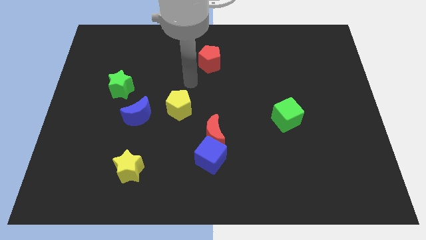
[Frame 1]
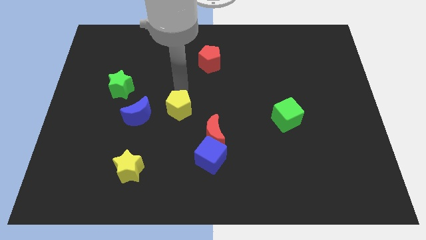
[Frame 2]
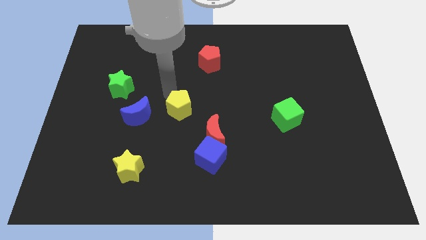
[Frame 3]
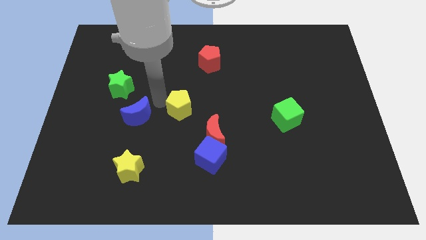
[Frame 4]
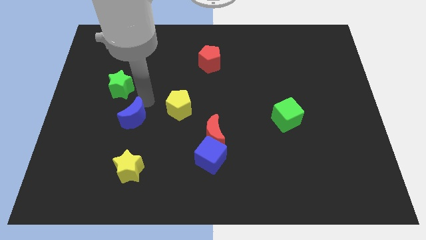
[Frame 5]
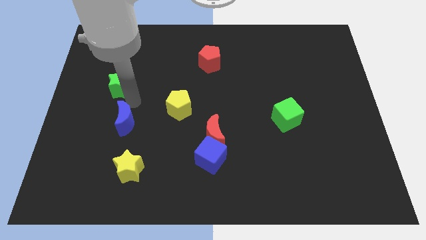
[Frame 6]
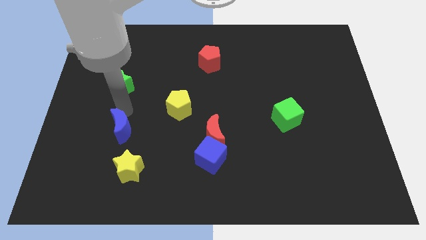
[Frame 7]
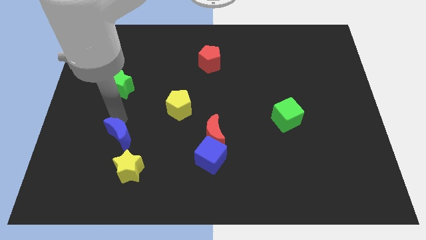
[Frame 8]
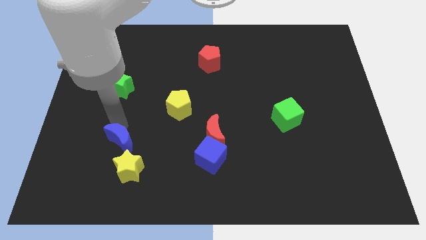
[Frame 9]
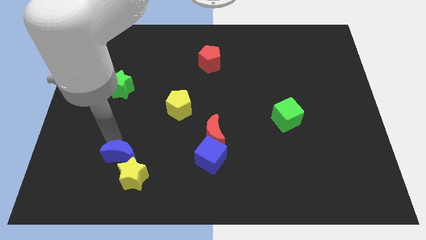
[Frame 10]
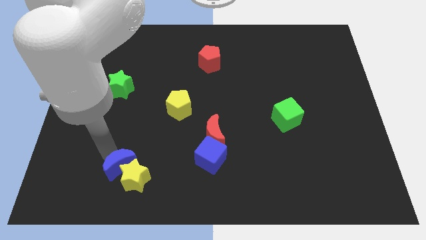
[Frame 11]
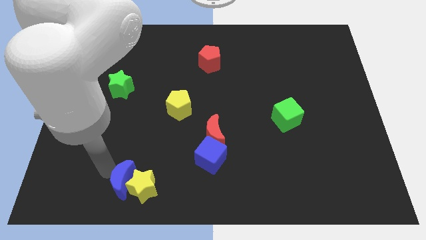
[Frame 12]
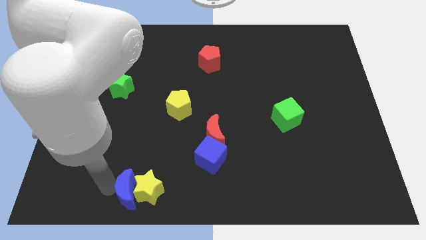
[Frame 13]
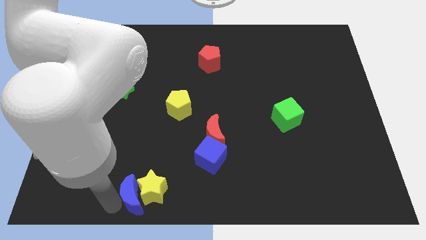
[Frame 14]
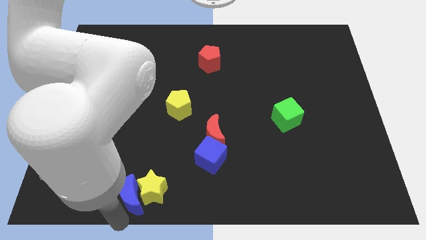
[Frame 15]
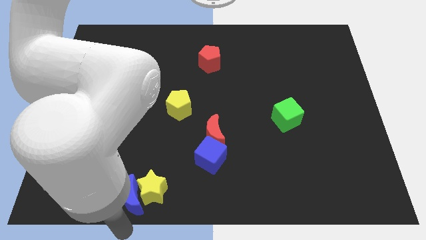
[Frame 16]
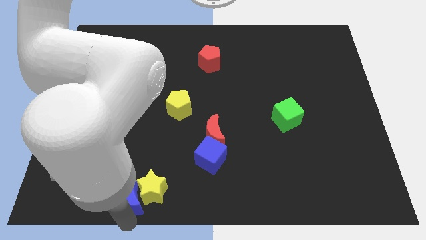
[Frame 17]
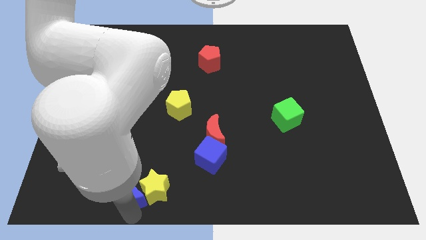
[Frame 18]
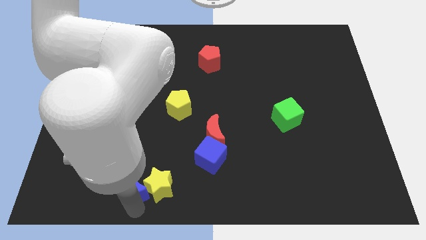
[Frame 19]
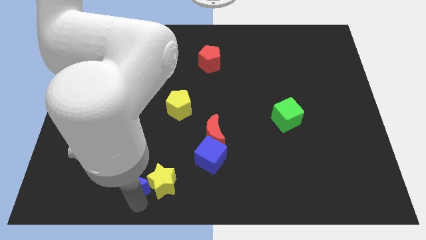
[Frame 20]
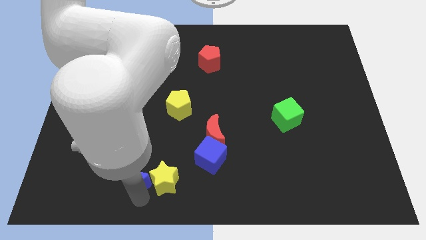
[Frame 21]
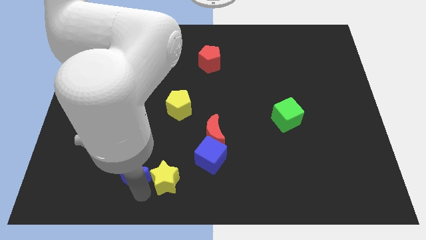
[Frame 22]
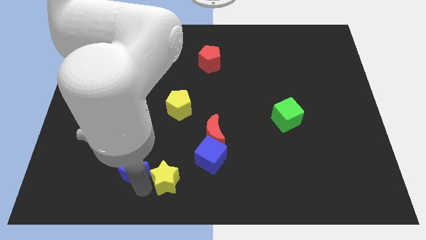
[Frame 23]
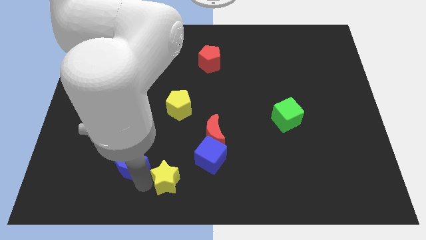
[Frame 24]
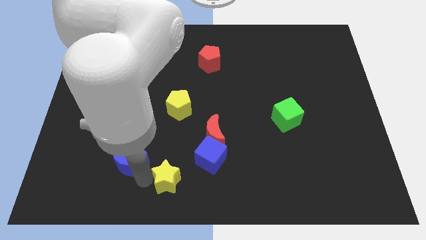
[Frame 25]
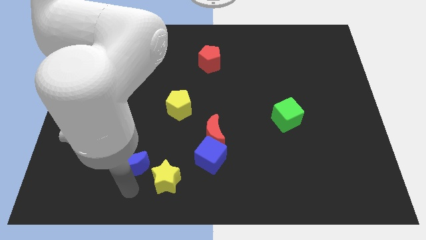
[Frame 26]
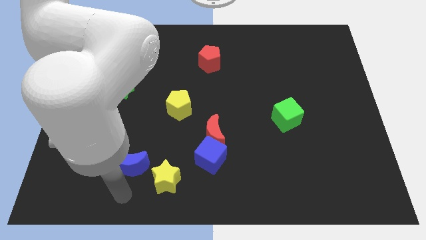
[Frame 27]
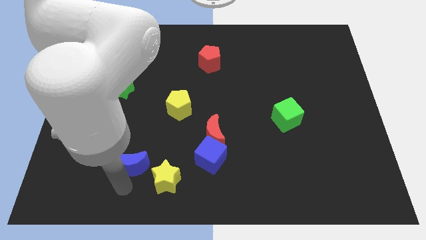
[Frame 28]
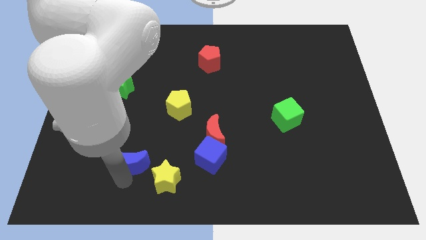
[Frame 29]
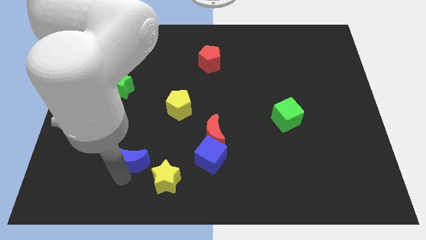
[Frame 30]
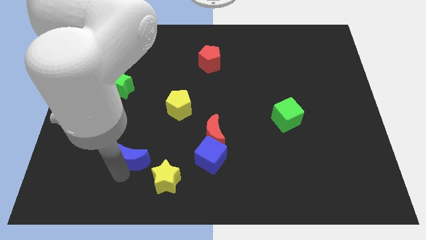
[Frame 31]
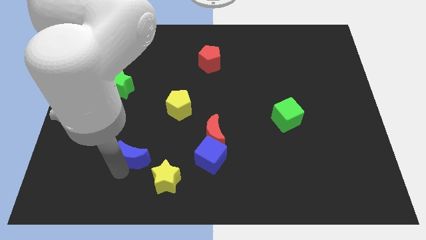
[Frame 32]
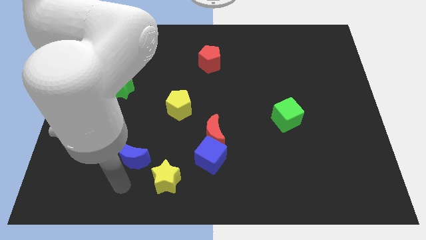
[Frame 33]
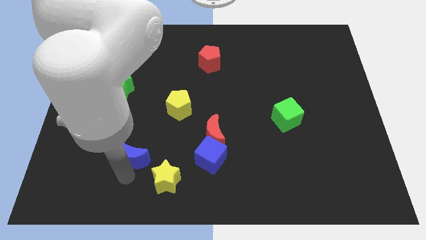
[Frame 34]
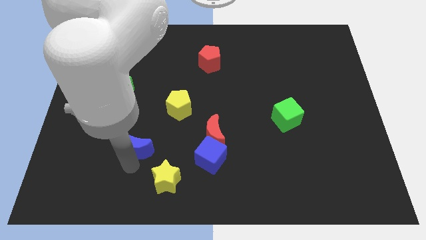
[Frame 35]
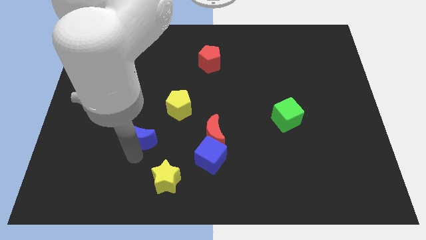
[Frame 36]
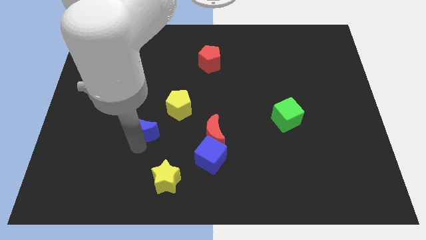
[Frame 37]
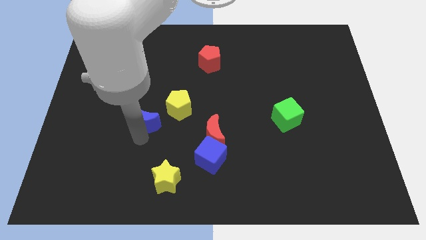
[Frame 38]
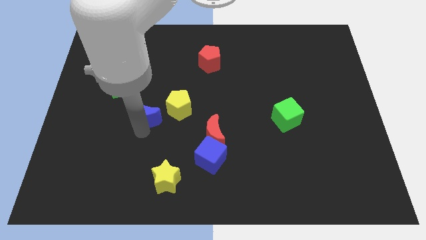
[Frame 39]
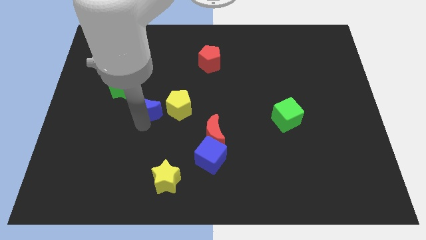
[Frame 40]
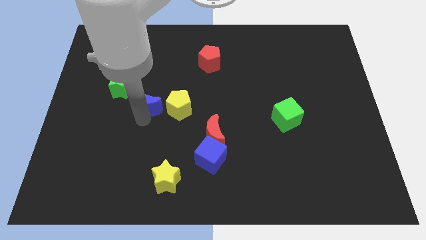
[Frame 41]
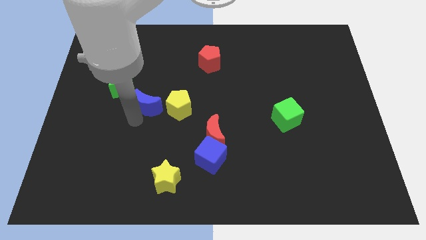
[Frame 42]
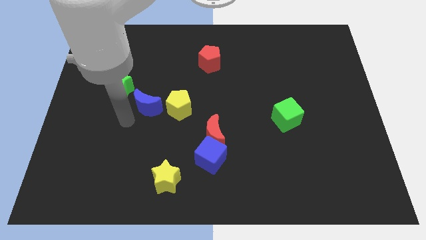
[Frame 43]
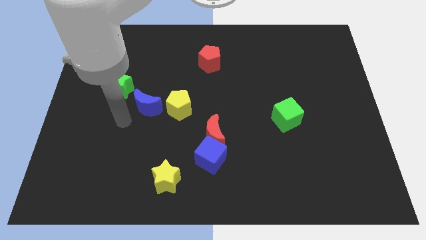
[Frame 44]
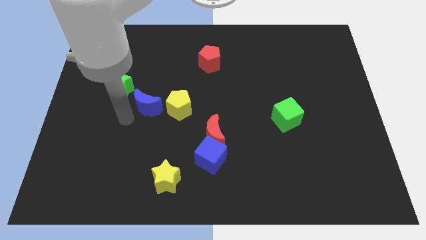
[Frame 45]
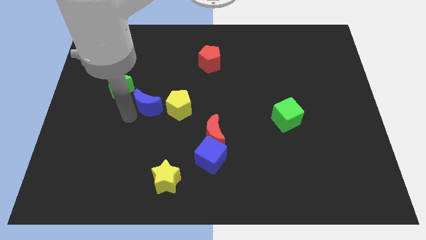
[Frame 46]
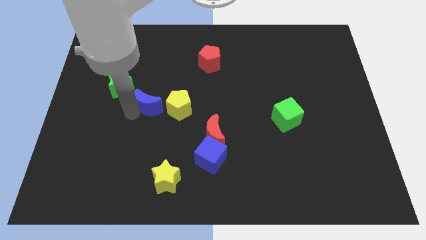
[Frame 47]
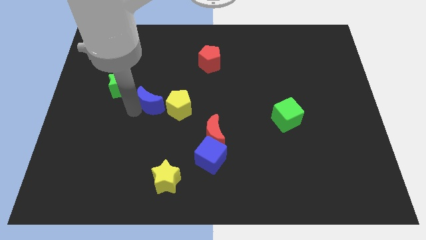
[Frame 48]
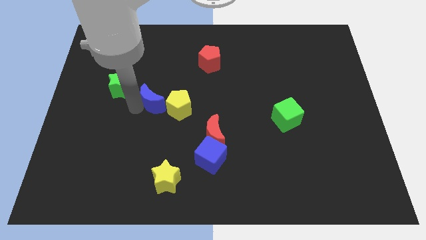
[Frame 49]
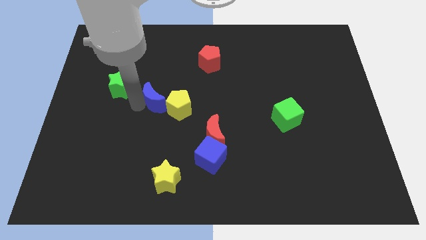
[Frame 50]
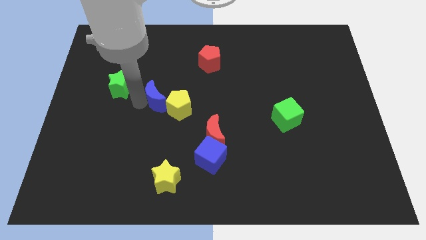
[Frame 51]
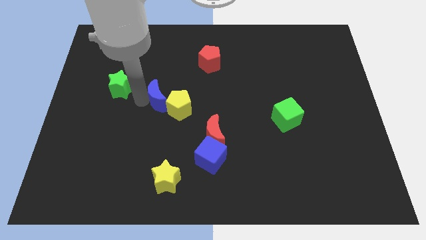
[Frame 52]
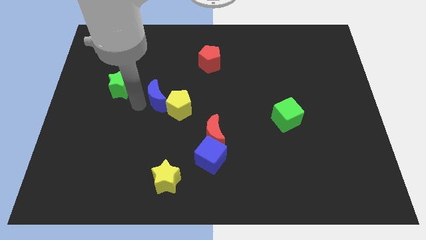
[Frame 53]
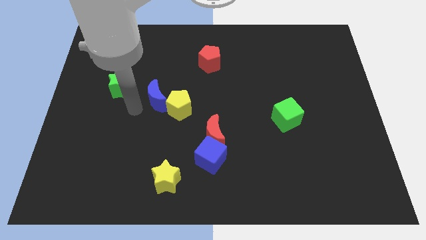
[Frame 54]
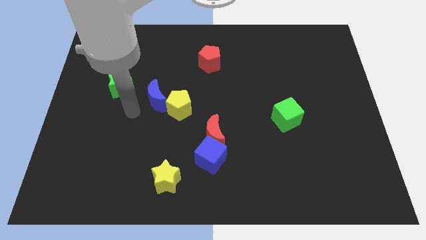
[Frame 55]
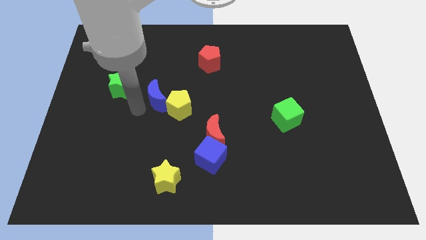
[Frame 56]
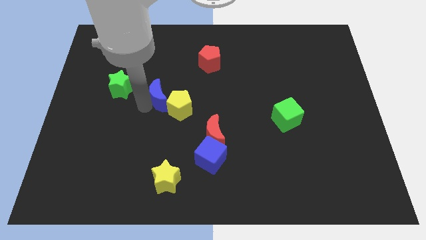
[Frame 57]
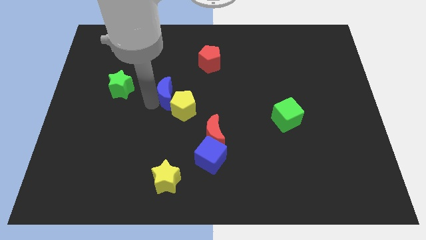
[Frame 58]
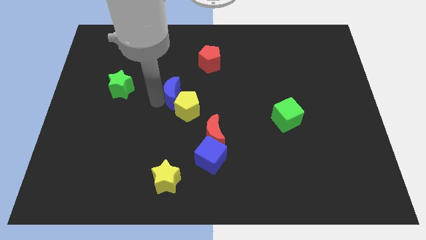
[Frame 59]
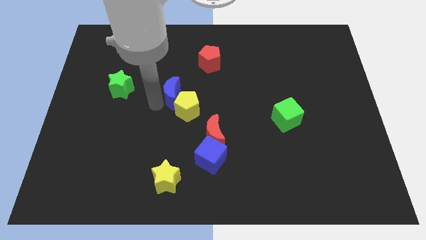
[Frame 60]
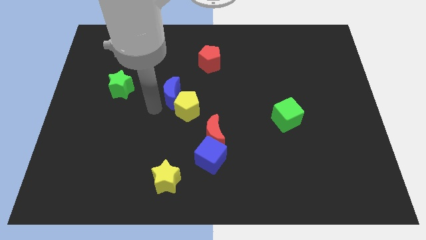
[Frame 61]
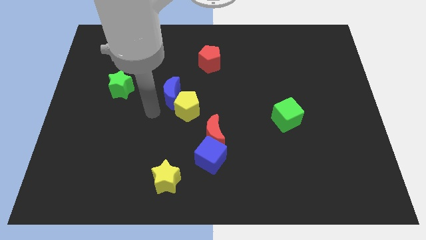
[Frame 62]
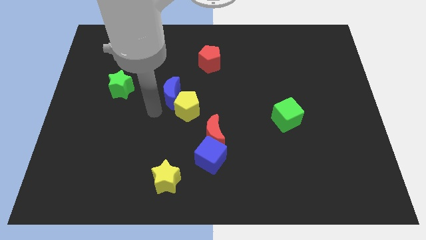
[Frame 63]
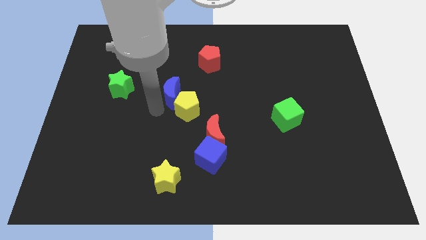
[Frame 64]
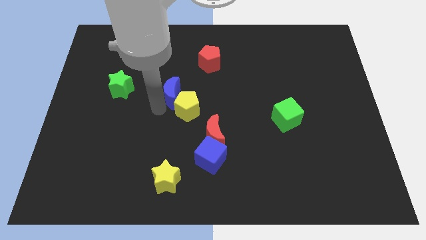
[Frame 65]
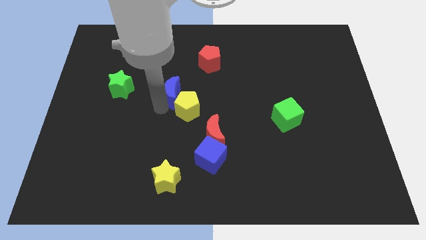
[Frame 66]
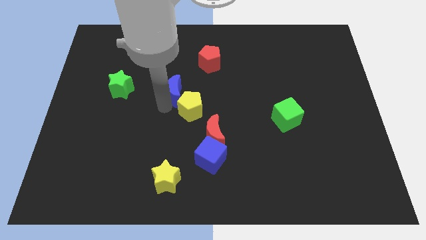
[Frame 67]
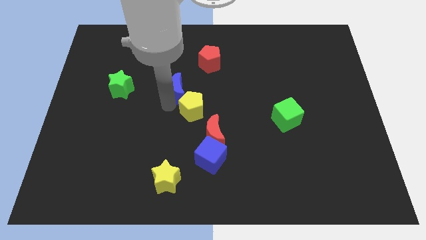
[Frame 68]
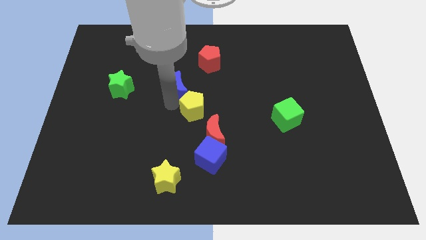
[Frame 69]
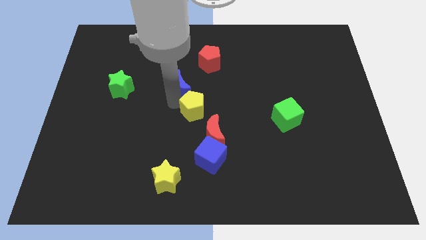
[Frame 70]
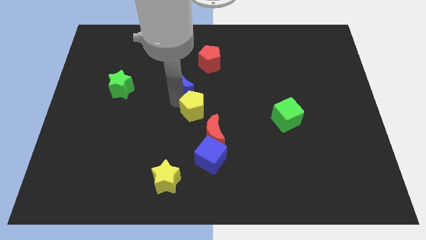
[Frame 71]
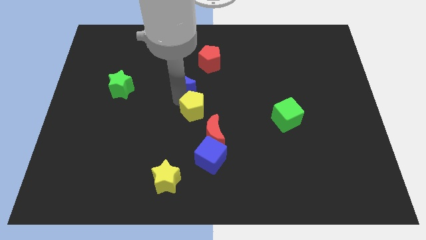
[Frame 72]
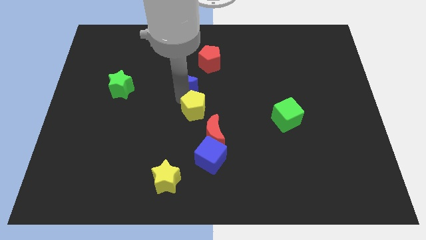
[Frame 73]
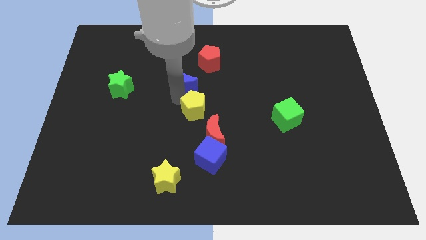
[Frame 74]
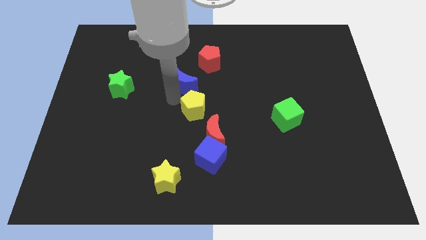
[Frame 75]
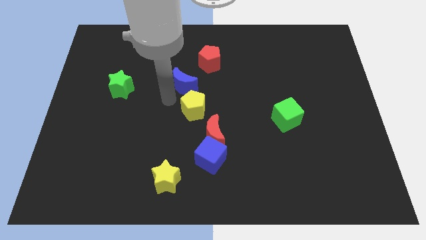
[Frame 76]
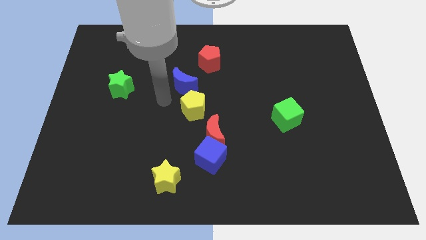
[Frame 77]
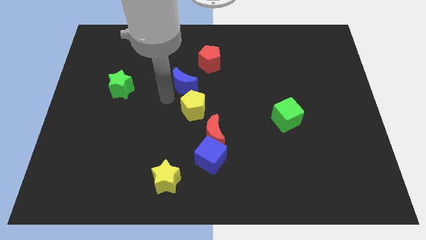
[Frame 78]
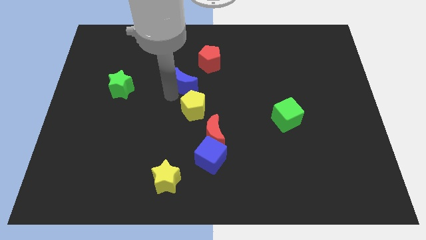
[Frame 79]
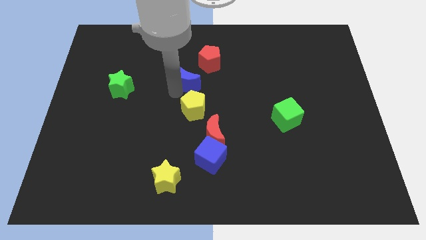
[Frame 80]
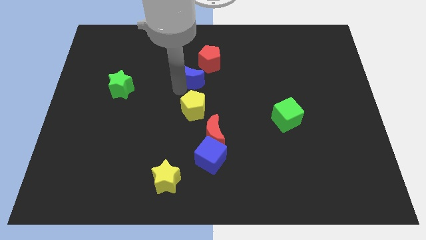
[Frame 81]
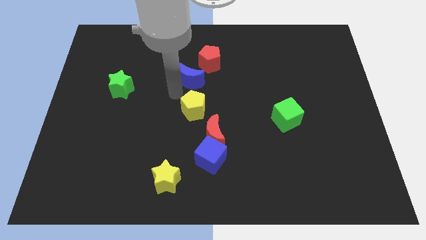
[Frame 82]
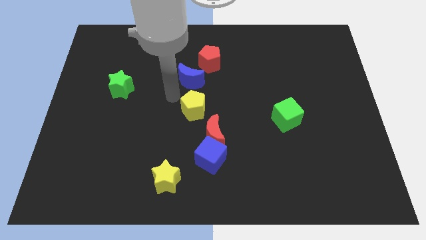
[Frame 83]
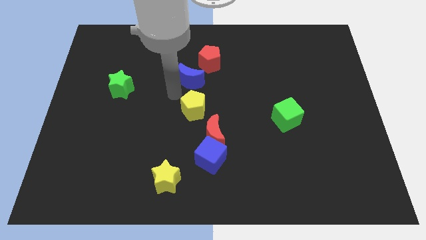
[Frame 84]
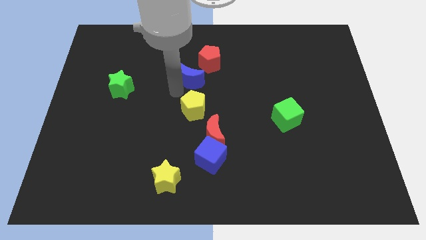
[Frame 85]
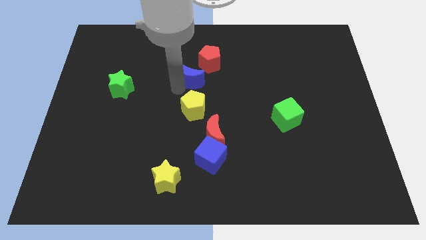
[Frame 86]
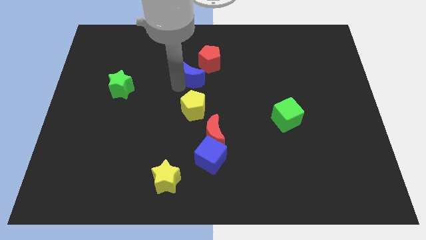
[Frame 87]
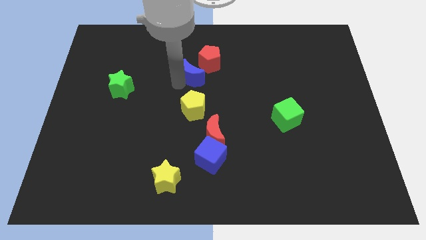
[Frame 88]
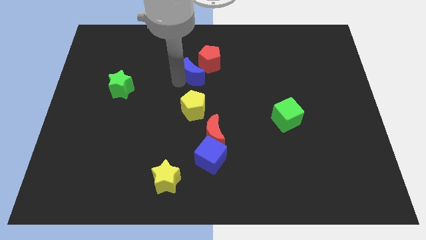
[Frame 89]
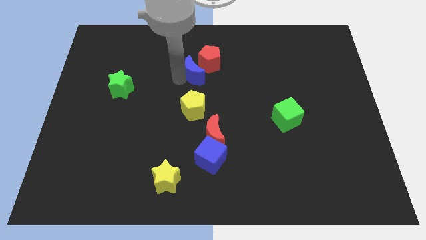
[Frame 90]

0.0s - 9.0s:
slide the blue moon towards the red pentagon
